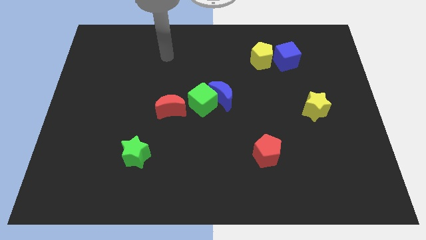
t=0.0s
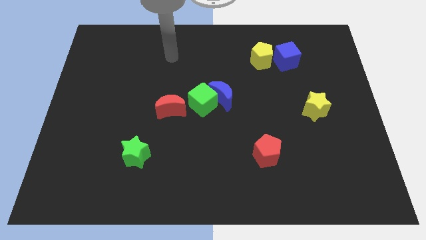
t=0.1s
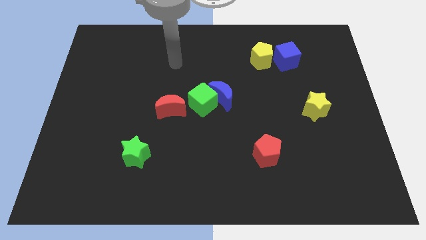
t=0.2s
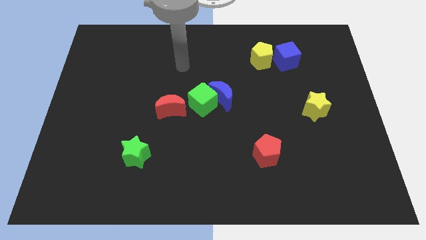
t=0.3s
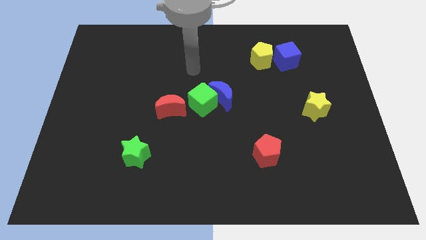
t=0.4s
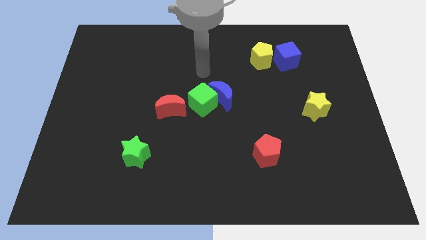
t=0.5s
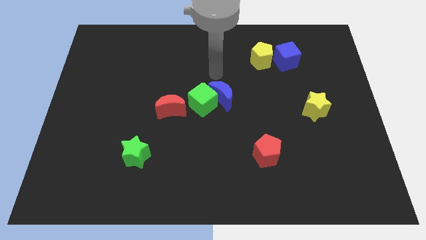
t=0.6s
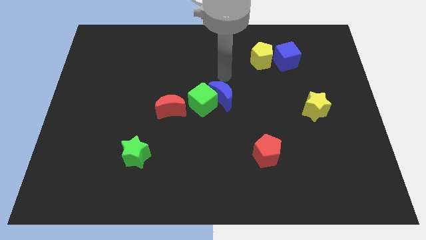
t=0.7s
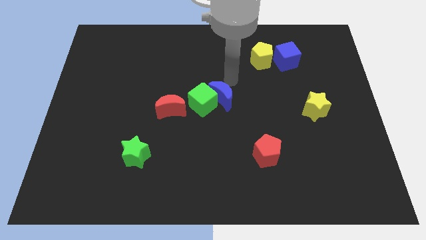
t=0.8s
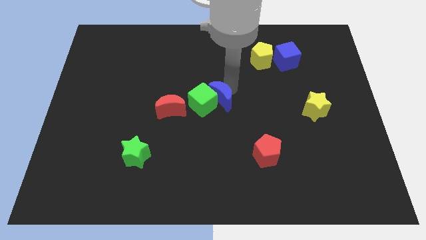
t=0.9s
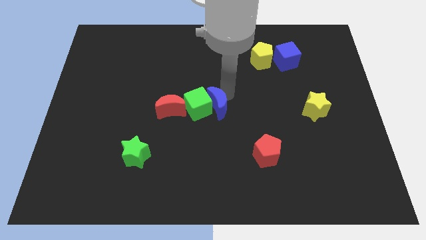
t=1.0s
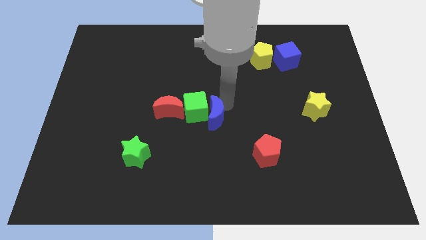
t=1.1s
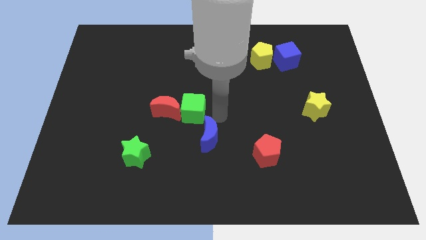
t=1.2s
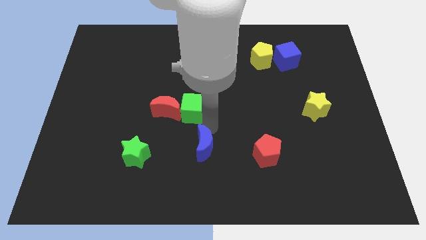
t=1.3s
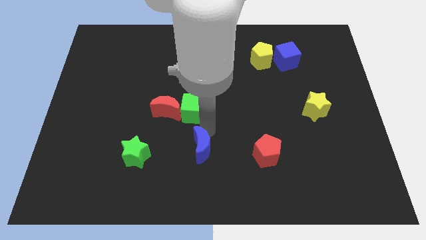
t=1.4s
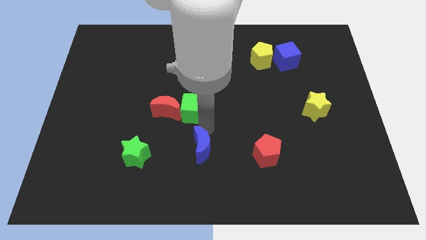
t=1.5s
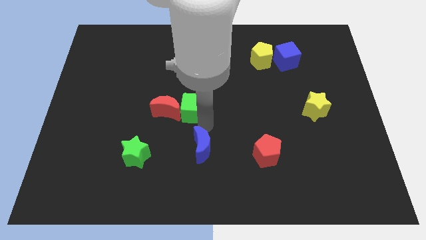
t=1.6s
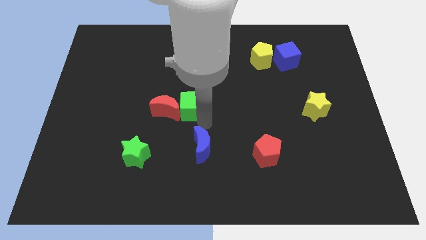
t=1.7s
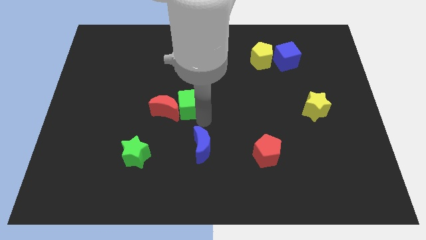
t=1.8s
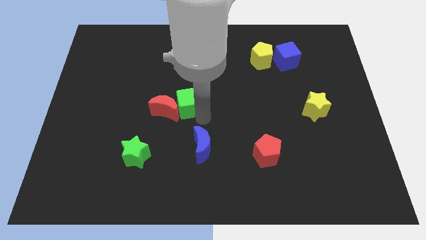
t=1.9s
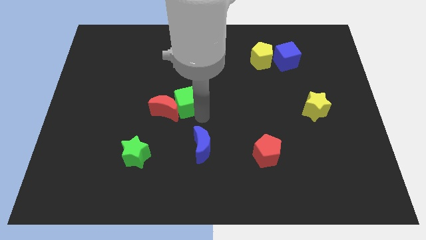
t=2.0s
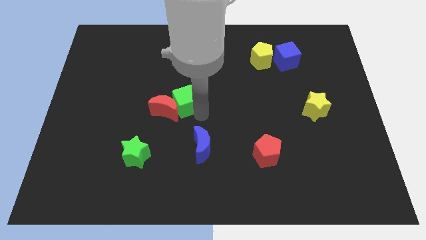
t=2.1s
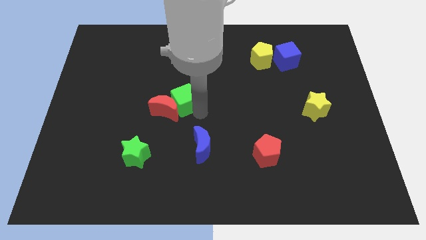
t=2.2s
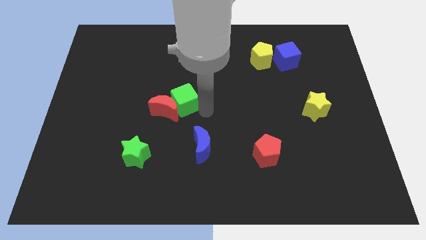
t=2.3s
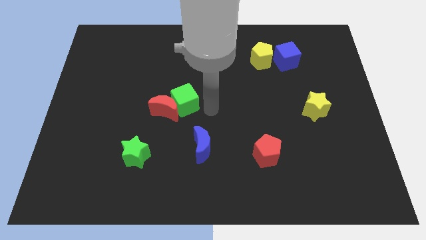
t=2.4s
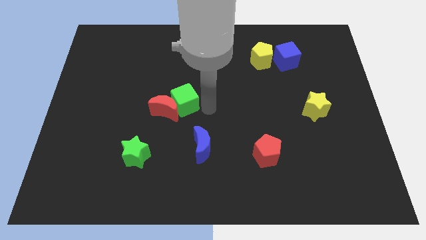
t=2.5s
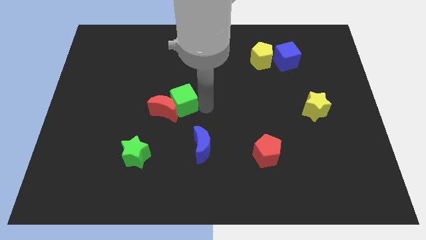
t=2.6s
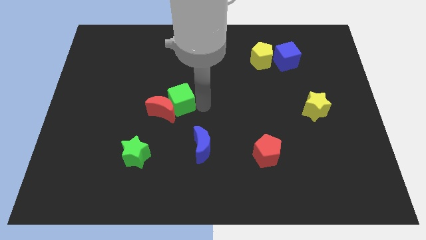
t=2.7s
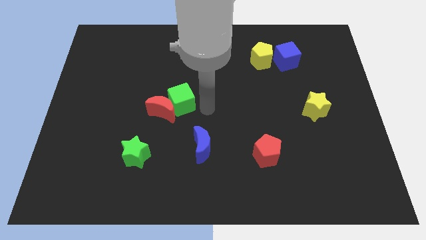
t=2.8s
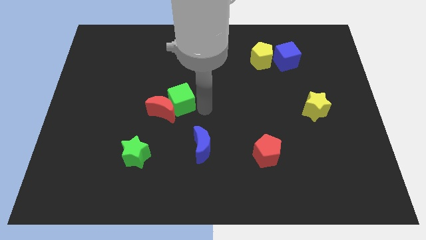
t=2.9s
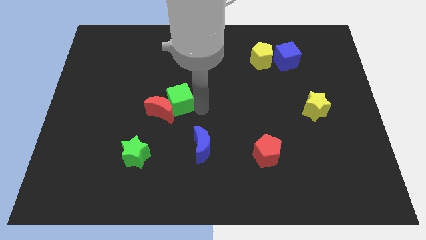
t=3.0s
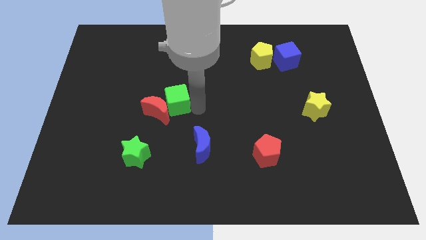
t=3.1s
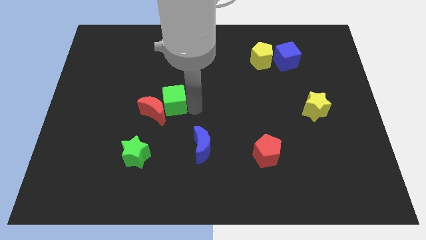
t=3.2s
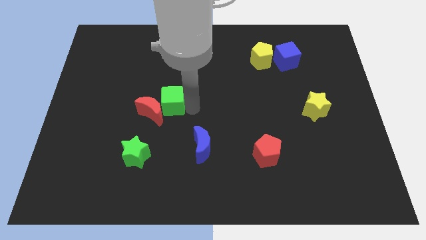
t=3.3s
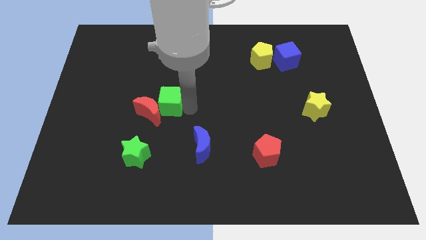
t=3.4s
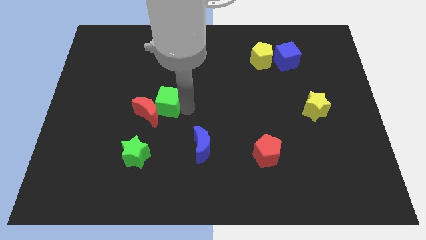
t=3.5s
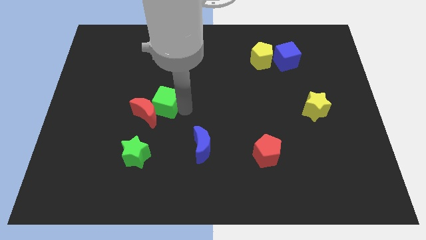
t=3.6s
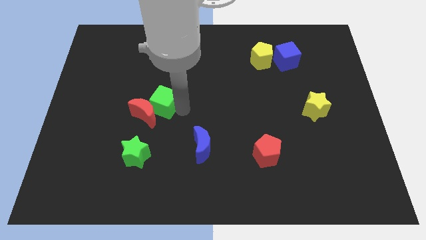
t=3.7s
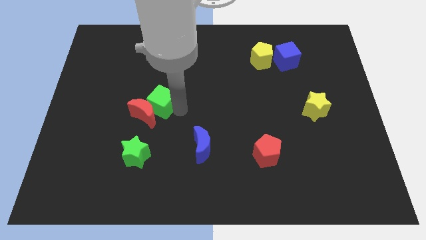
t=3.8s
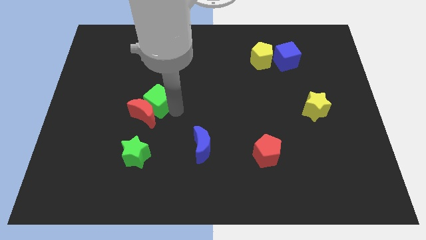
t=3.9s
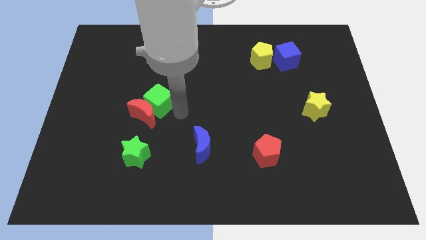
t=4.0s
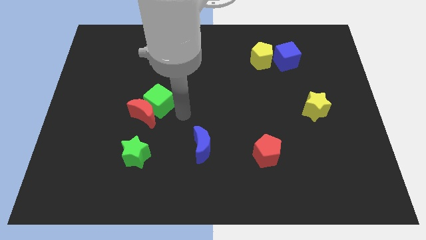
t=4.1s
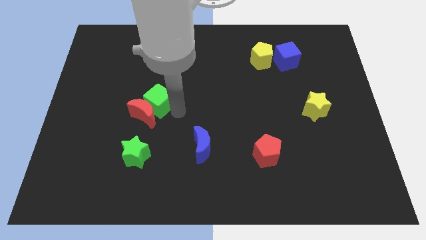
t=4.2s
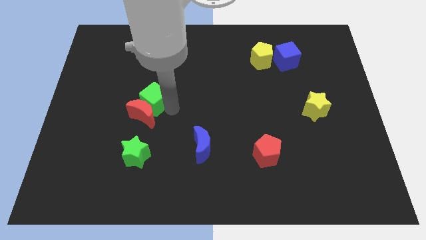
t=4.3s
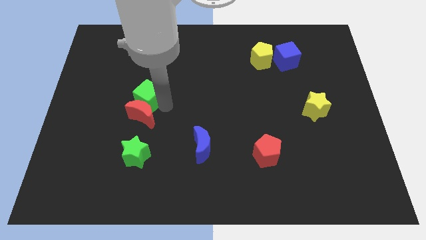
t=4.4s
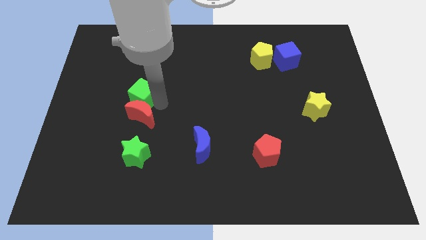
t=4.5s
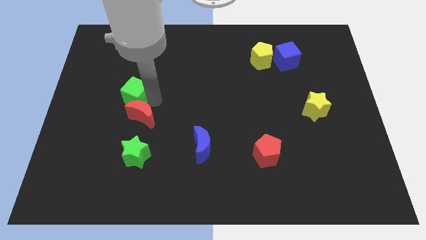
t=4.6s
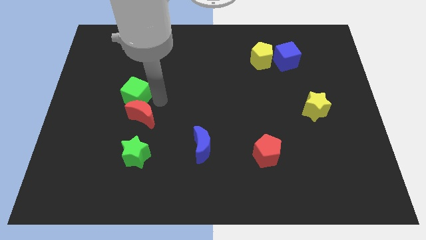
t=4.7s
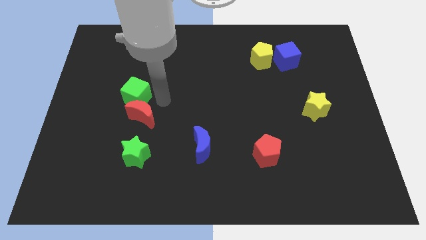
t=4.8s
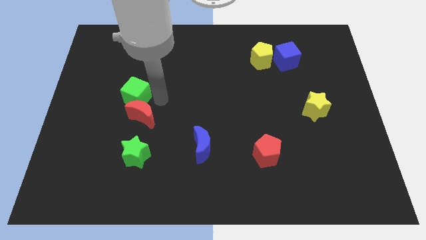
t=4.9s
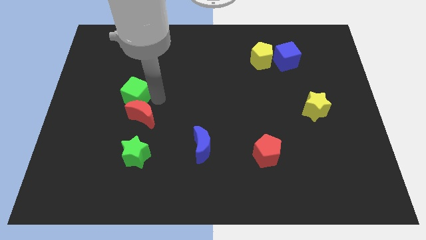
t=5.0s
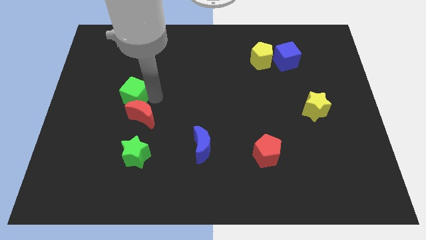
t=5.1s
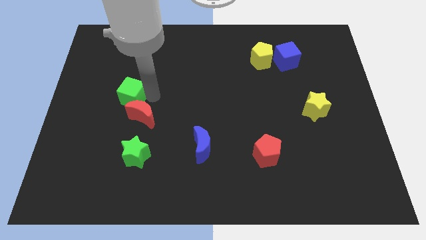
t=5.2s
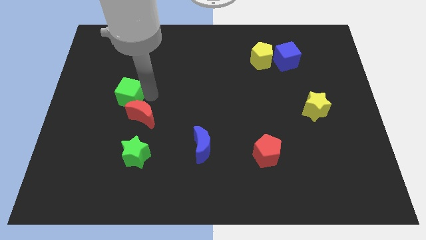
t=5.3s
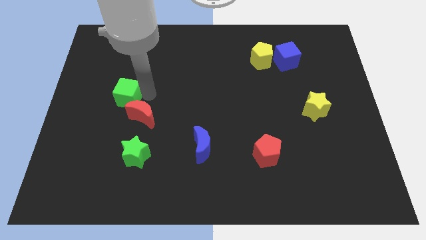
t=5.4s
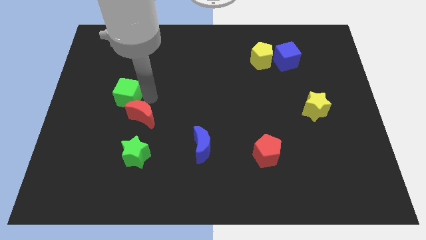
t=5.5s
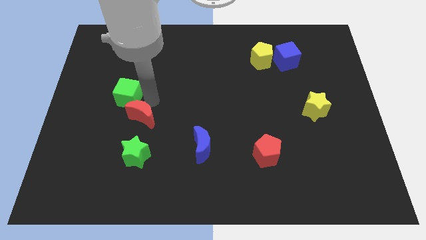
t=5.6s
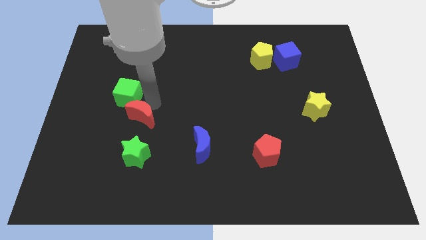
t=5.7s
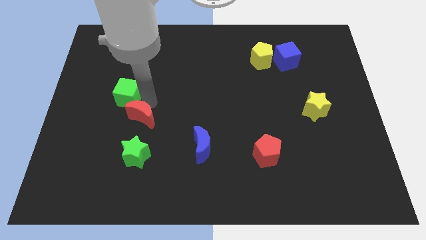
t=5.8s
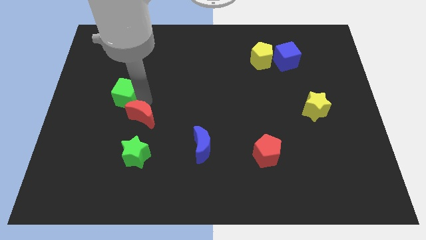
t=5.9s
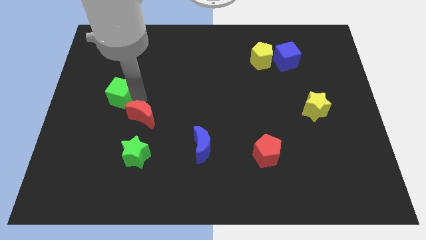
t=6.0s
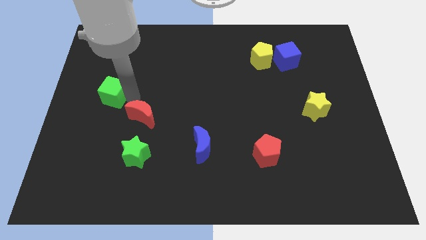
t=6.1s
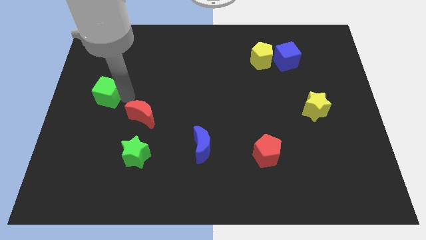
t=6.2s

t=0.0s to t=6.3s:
slide the green cube to the left side

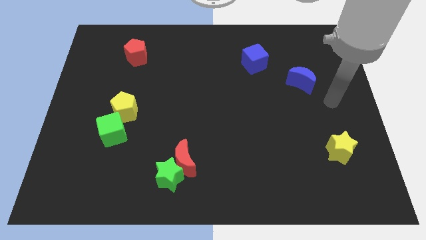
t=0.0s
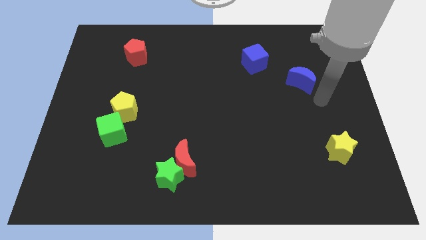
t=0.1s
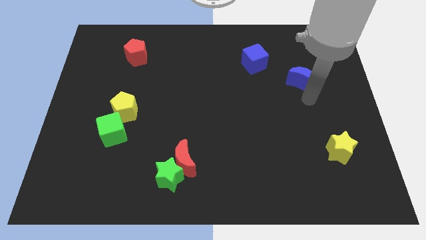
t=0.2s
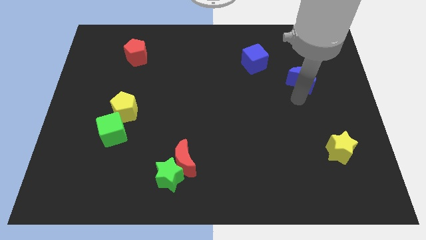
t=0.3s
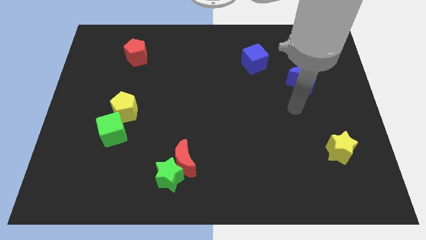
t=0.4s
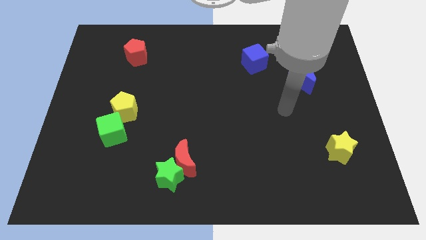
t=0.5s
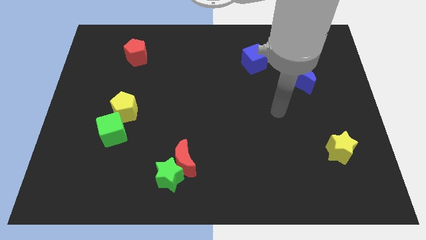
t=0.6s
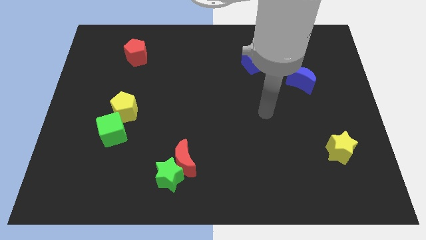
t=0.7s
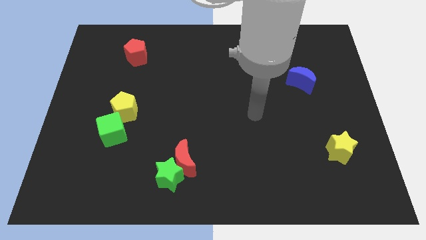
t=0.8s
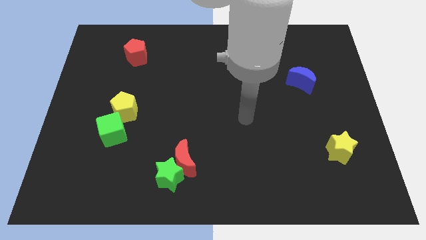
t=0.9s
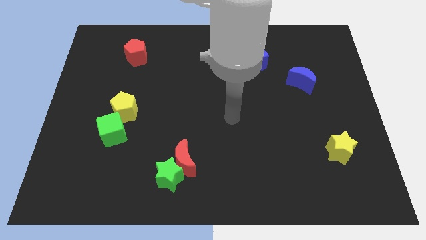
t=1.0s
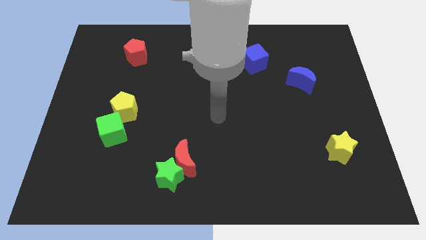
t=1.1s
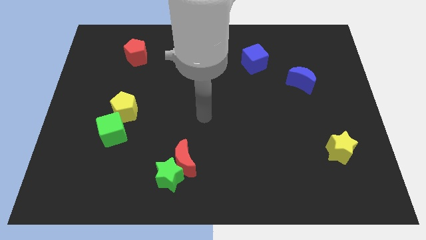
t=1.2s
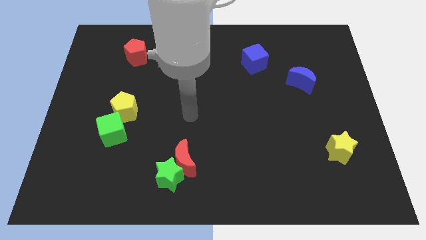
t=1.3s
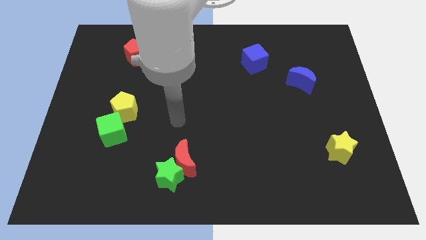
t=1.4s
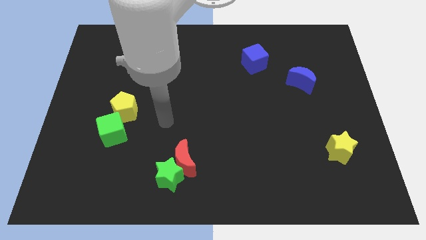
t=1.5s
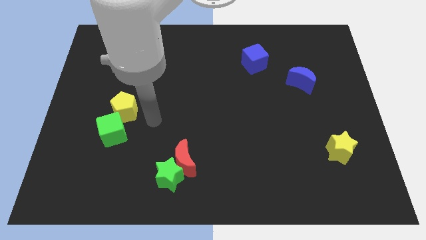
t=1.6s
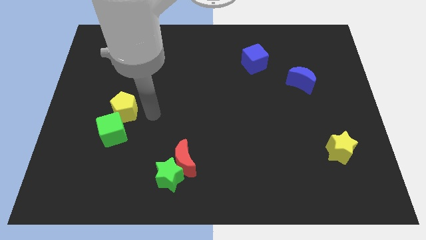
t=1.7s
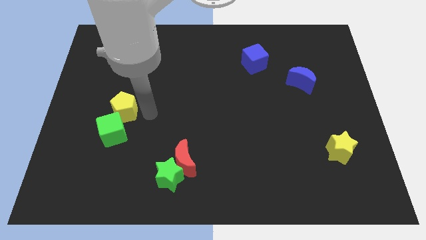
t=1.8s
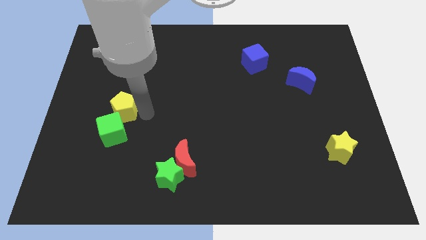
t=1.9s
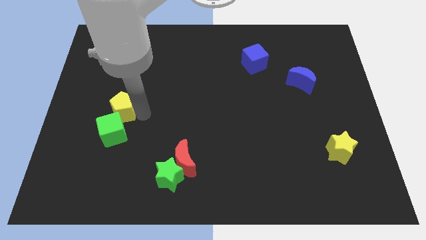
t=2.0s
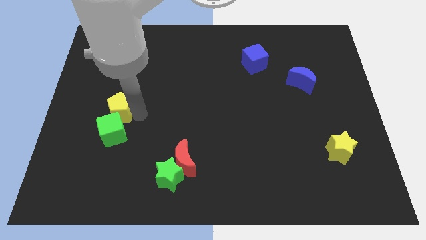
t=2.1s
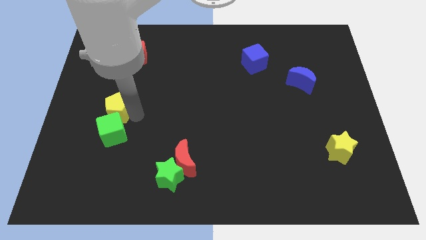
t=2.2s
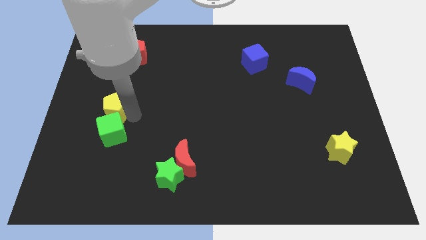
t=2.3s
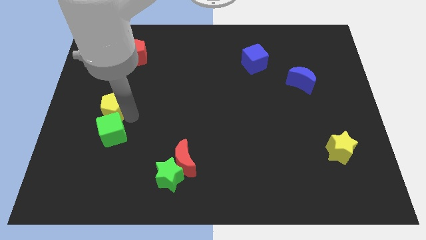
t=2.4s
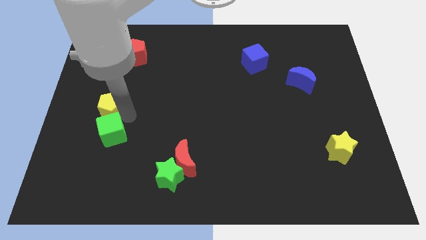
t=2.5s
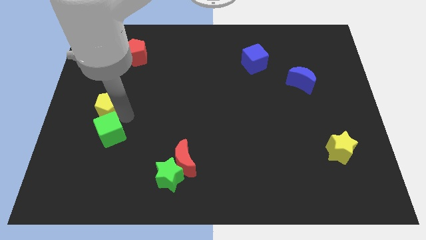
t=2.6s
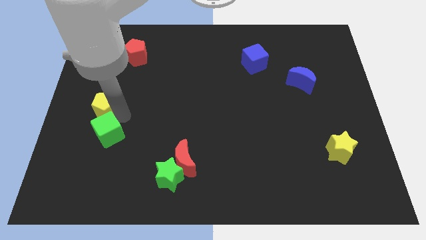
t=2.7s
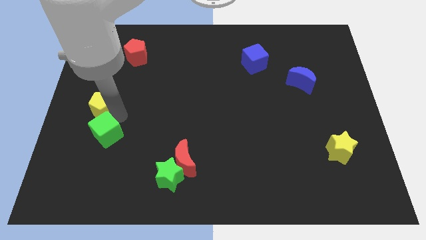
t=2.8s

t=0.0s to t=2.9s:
slide the yellow pentagon to the left side
